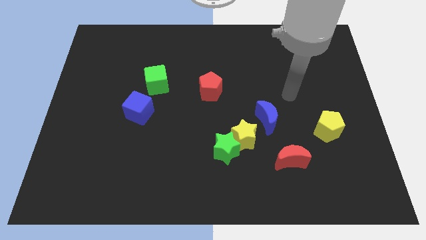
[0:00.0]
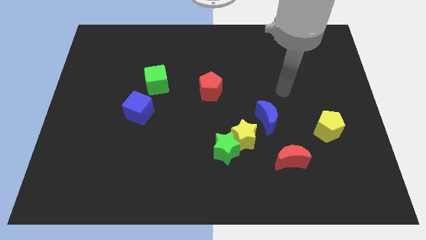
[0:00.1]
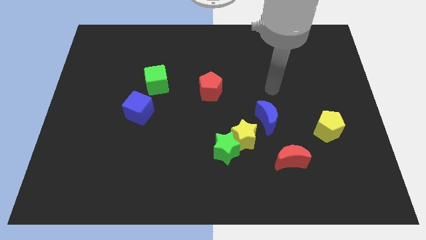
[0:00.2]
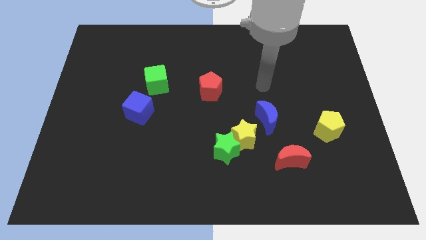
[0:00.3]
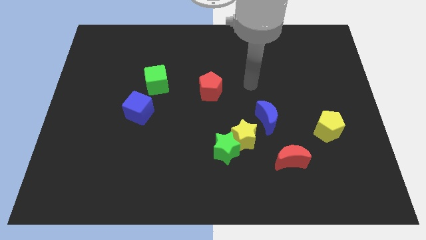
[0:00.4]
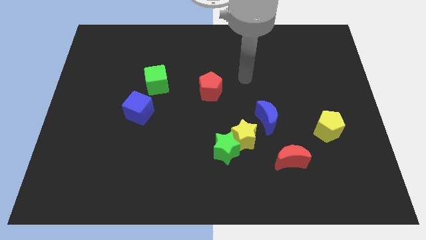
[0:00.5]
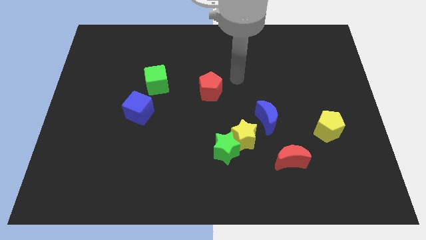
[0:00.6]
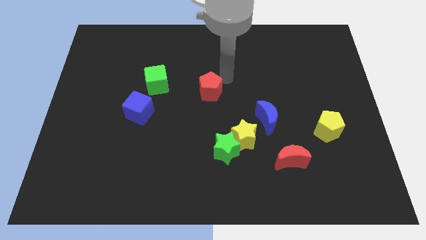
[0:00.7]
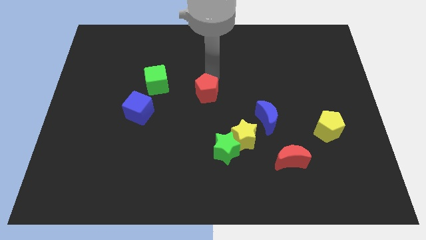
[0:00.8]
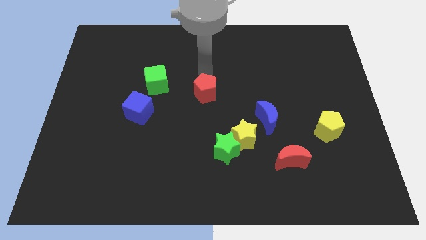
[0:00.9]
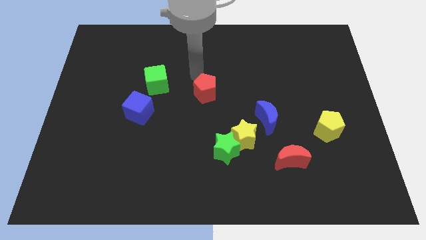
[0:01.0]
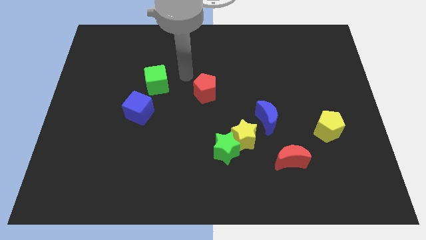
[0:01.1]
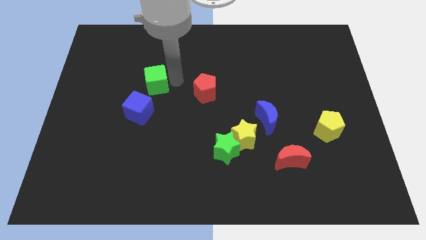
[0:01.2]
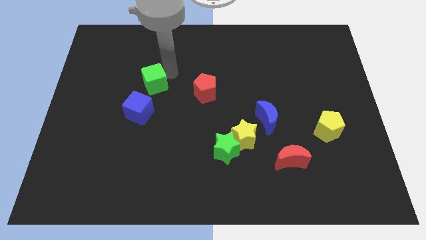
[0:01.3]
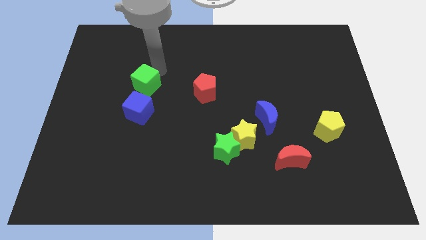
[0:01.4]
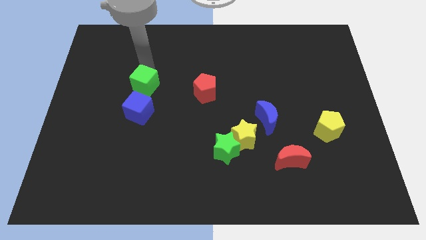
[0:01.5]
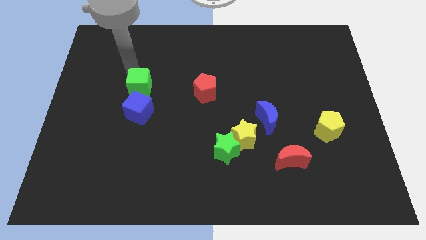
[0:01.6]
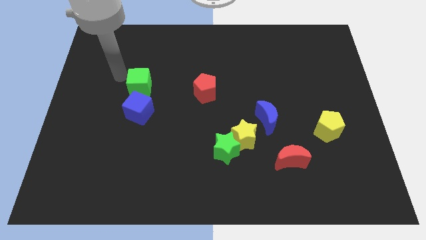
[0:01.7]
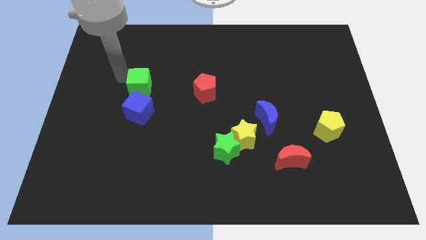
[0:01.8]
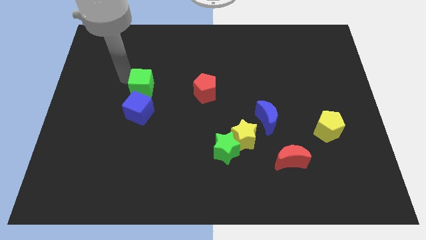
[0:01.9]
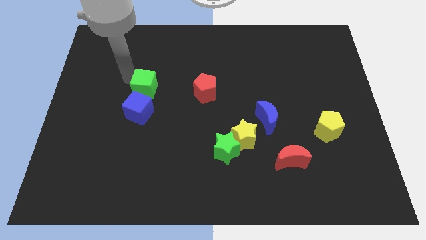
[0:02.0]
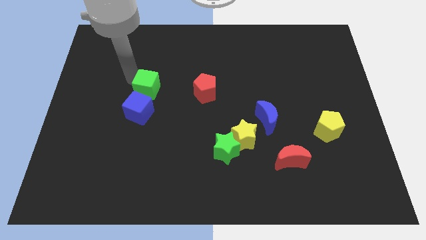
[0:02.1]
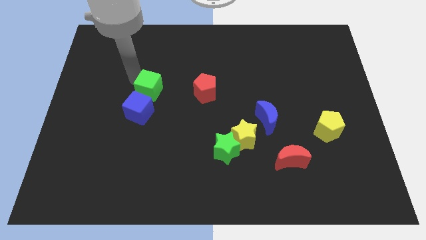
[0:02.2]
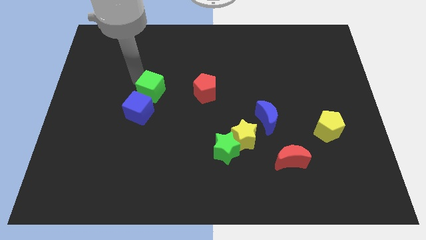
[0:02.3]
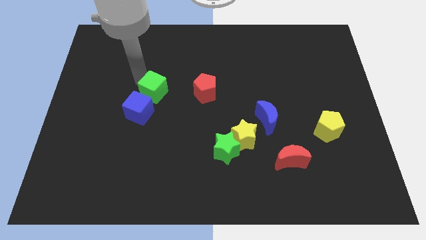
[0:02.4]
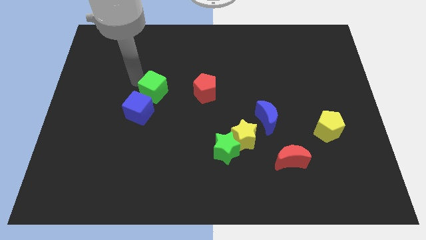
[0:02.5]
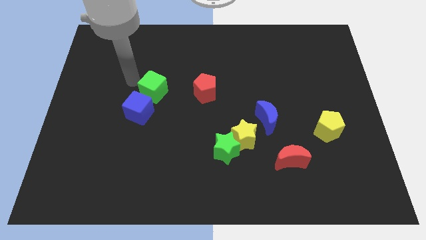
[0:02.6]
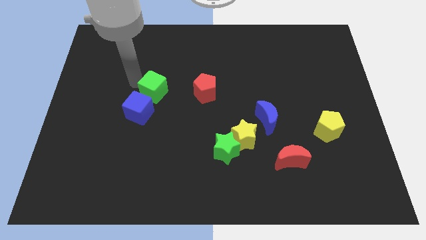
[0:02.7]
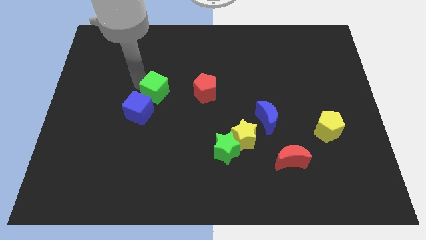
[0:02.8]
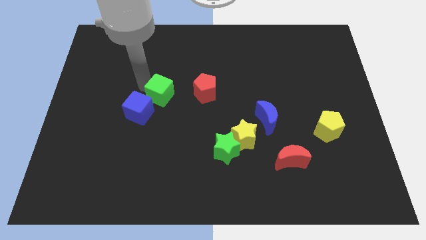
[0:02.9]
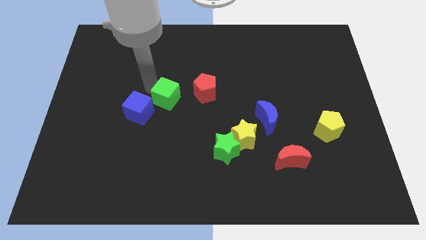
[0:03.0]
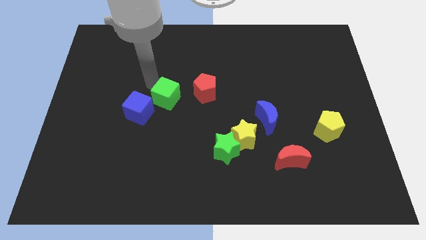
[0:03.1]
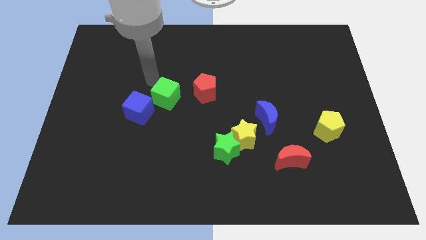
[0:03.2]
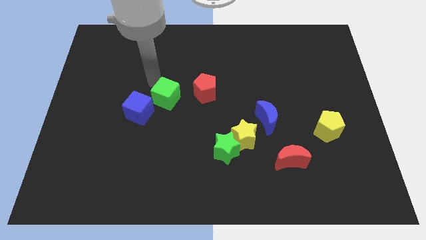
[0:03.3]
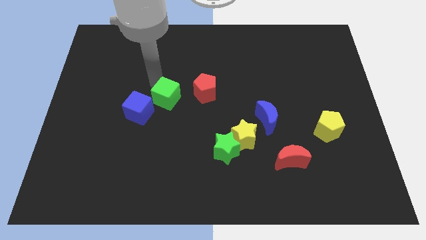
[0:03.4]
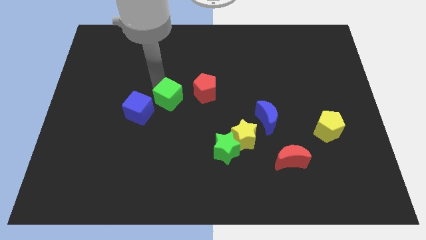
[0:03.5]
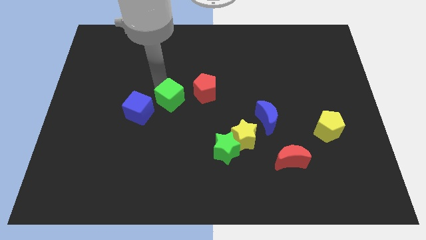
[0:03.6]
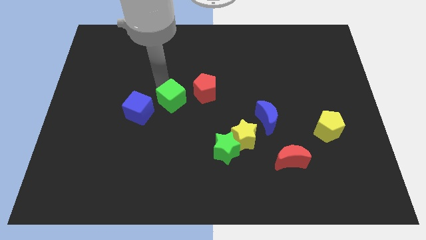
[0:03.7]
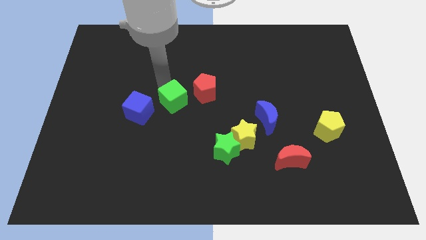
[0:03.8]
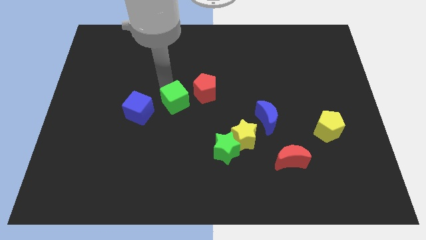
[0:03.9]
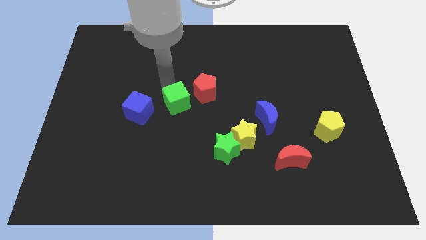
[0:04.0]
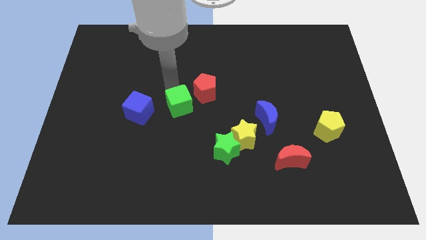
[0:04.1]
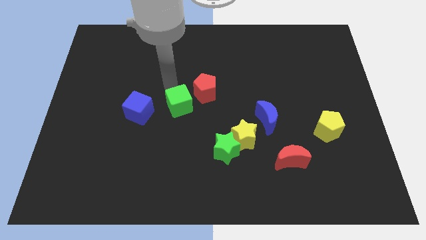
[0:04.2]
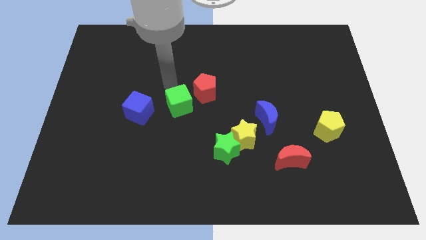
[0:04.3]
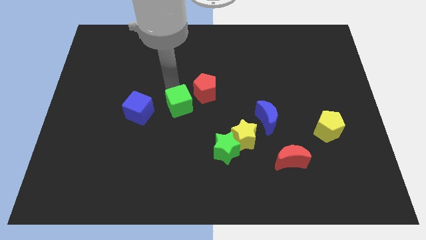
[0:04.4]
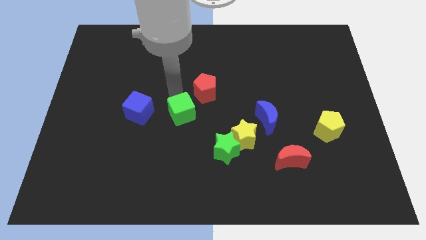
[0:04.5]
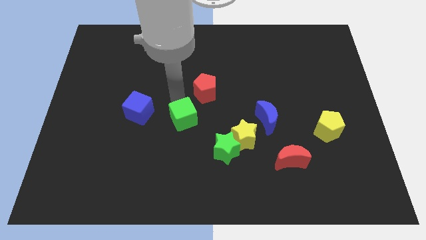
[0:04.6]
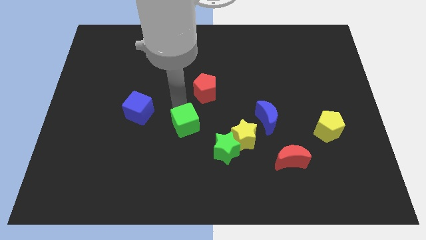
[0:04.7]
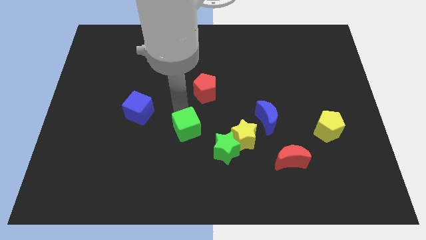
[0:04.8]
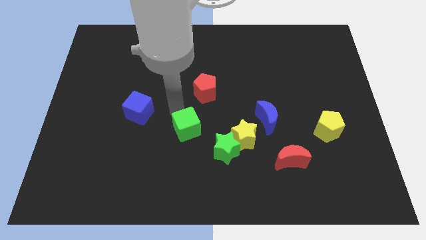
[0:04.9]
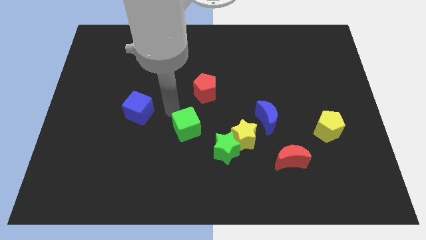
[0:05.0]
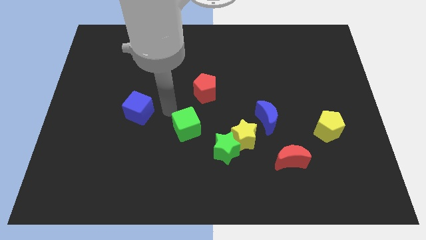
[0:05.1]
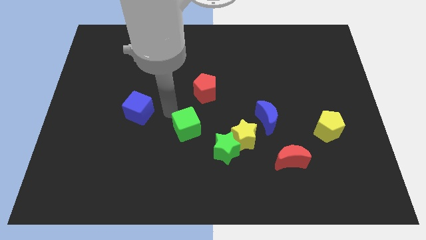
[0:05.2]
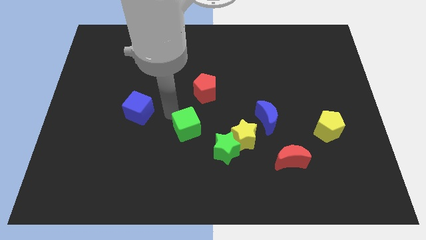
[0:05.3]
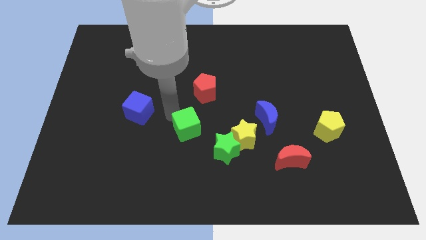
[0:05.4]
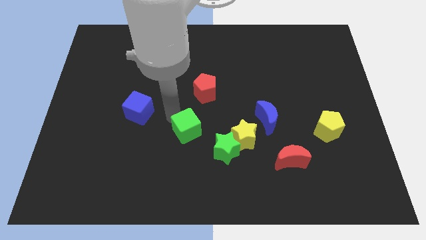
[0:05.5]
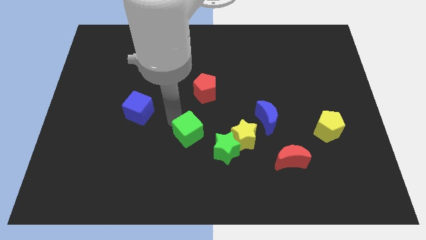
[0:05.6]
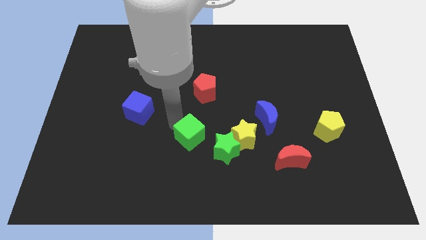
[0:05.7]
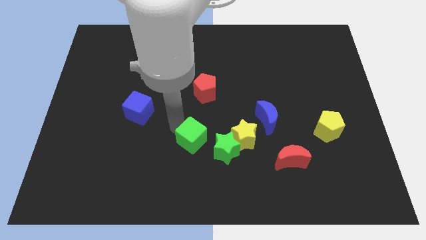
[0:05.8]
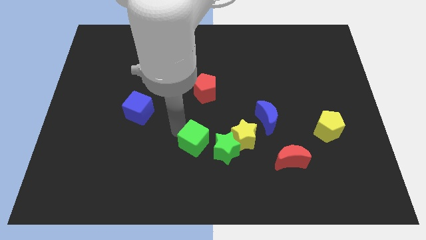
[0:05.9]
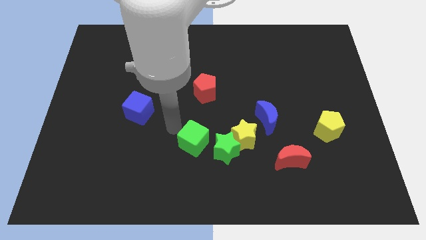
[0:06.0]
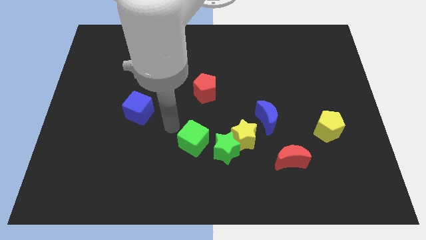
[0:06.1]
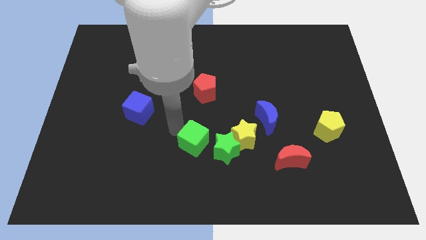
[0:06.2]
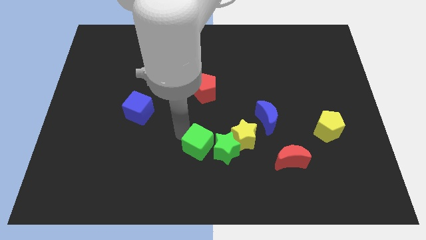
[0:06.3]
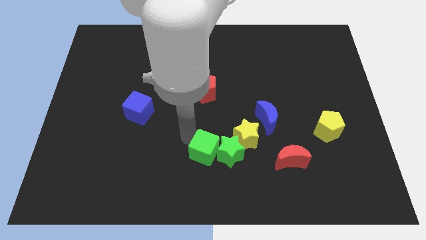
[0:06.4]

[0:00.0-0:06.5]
slide the green cube to the bottom left of the yellow star
